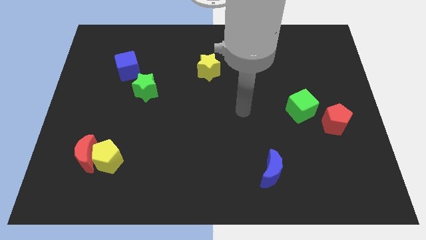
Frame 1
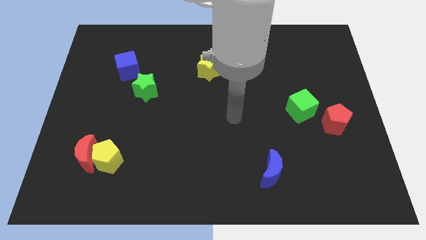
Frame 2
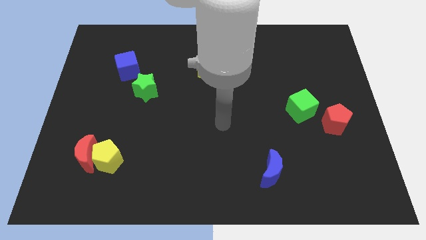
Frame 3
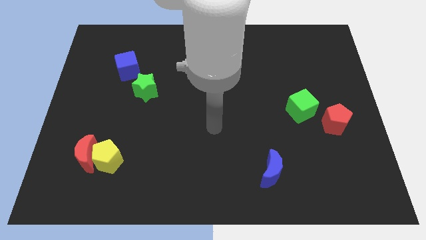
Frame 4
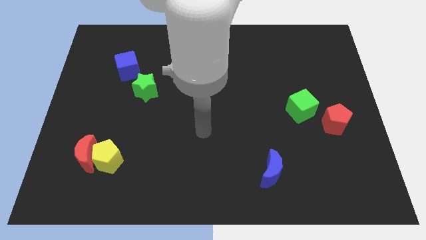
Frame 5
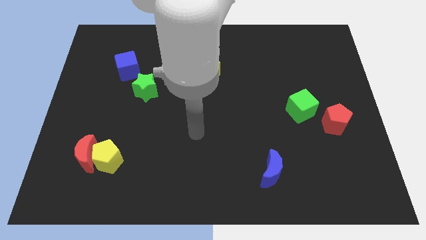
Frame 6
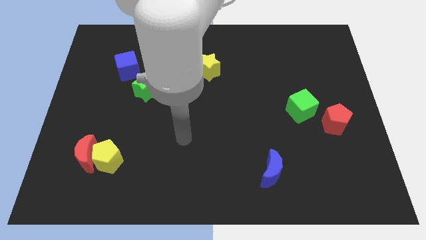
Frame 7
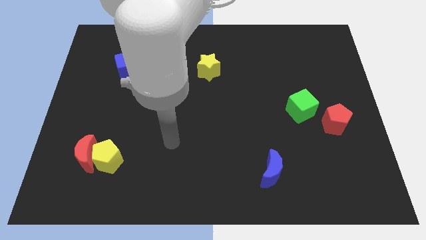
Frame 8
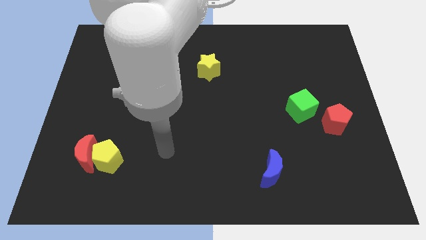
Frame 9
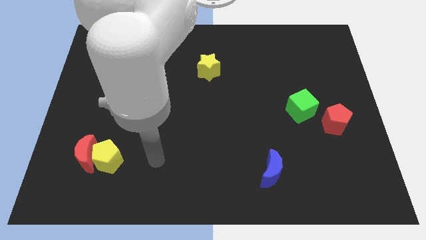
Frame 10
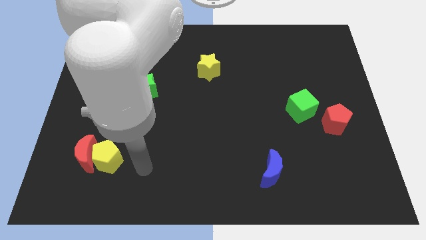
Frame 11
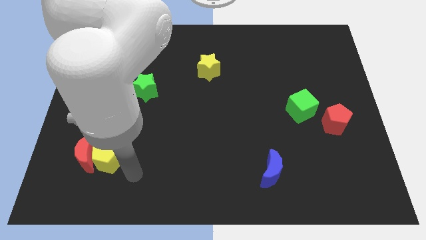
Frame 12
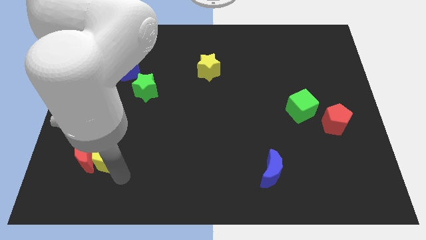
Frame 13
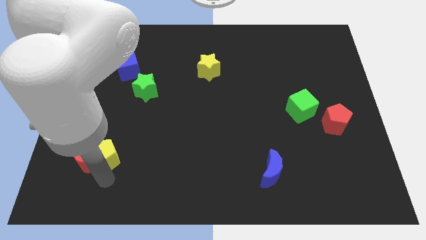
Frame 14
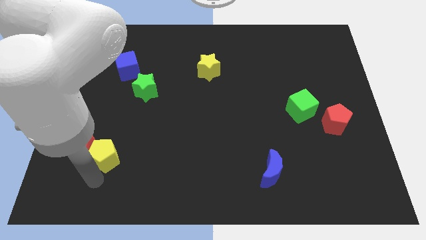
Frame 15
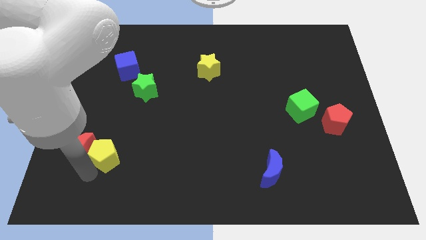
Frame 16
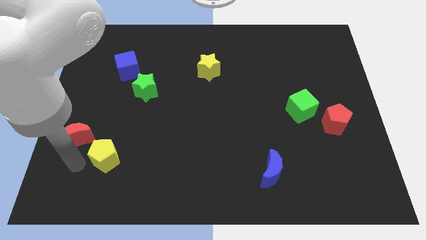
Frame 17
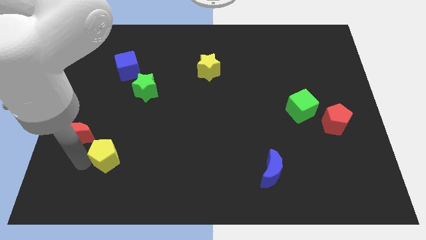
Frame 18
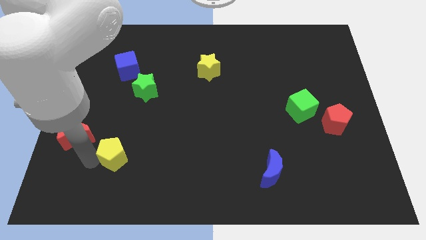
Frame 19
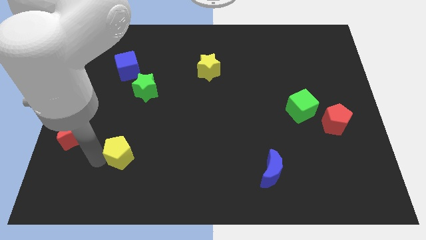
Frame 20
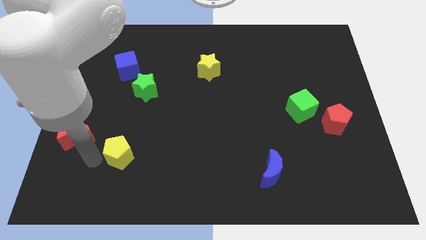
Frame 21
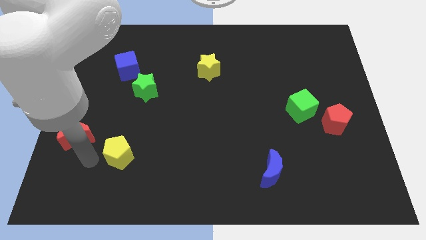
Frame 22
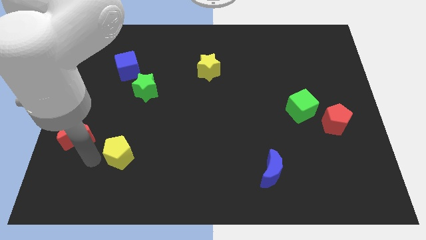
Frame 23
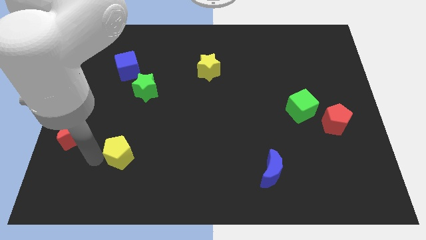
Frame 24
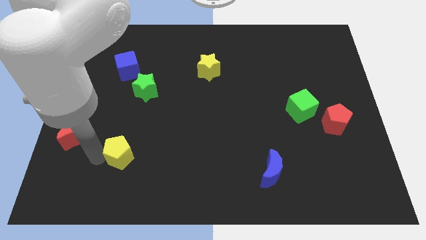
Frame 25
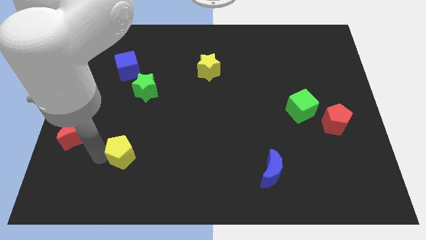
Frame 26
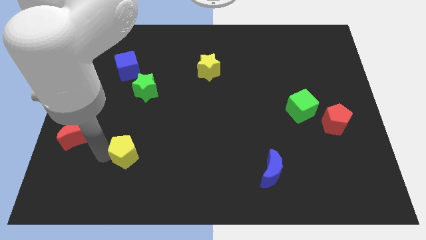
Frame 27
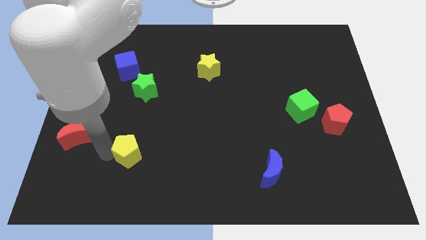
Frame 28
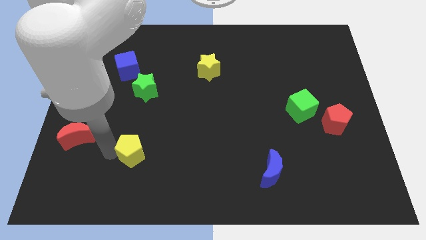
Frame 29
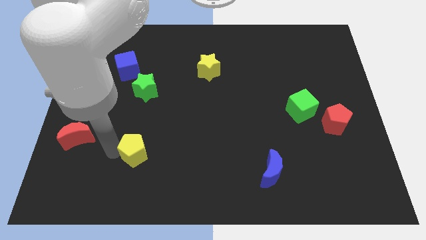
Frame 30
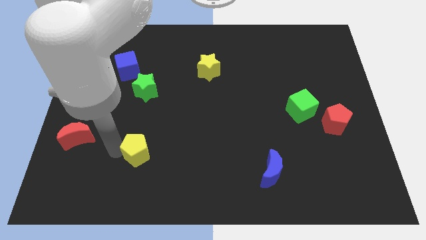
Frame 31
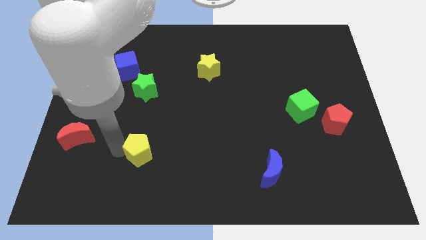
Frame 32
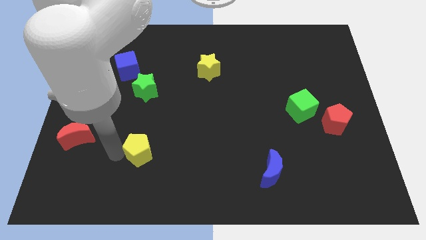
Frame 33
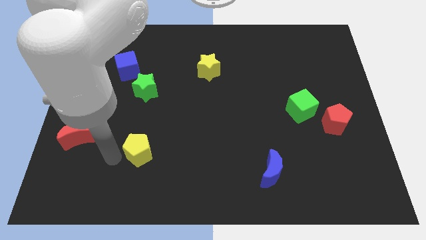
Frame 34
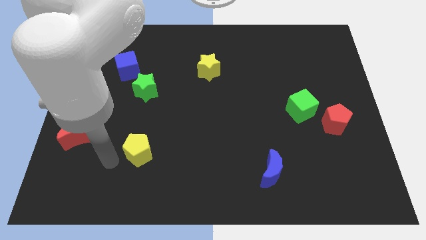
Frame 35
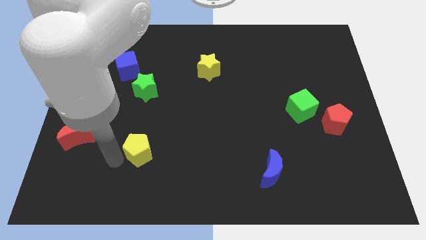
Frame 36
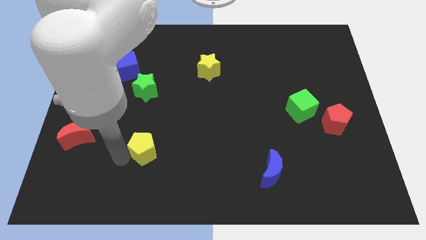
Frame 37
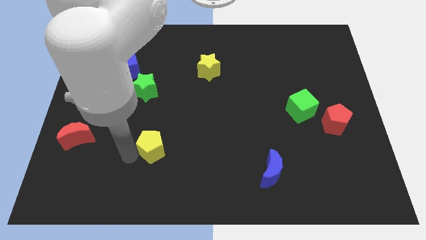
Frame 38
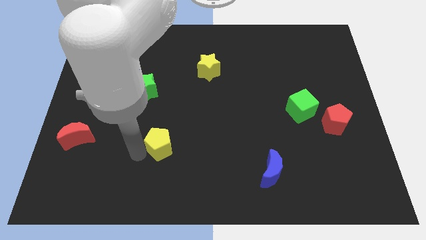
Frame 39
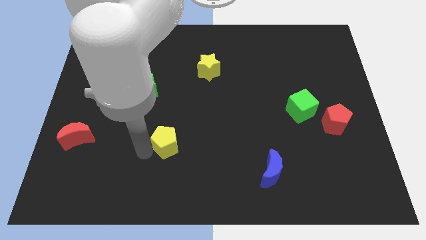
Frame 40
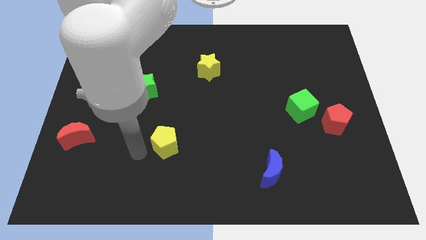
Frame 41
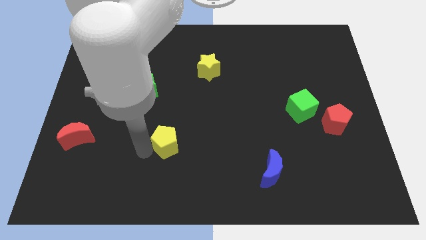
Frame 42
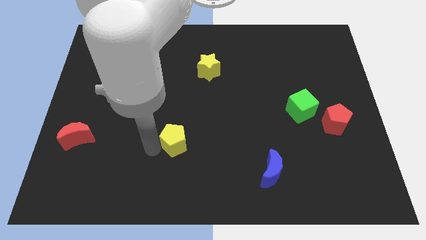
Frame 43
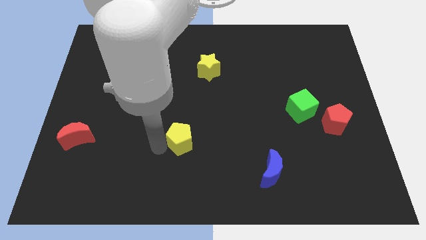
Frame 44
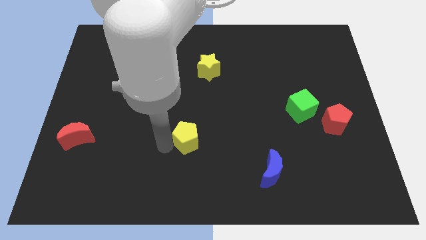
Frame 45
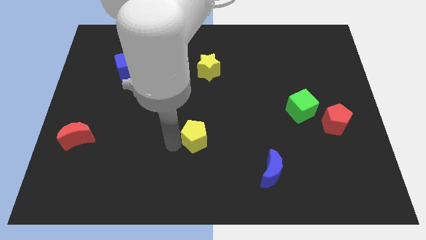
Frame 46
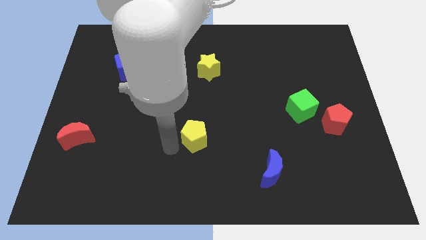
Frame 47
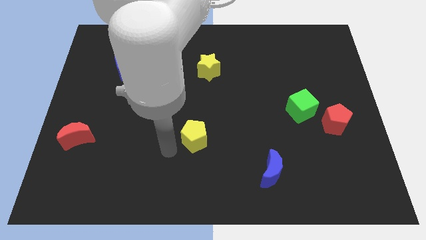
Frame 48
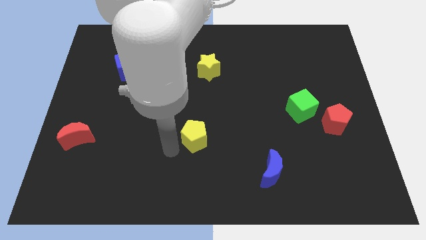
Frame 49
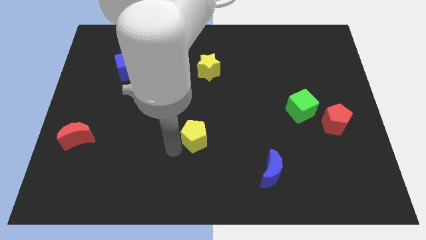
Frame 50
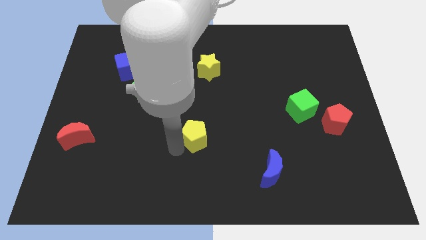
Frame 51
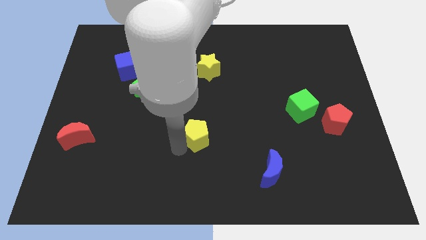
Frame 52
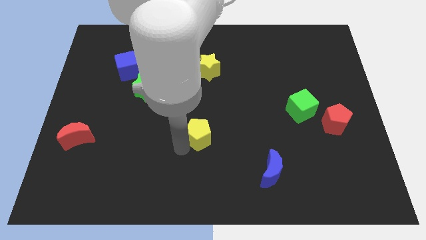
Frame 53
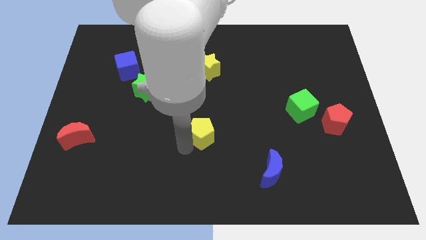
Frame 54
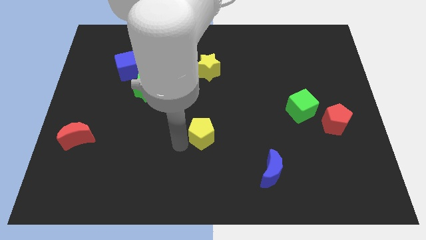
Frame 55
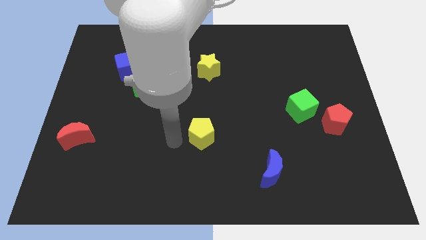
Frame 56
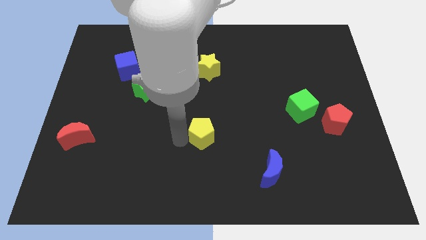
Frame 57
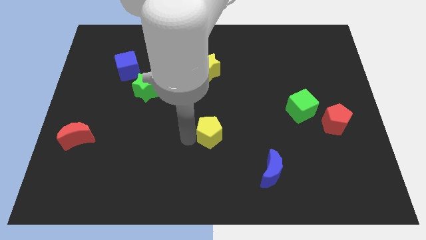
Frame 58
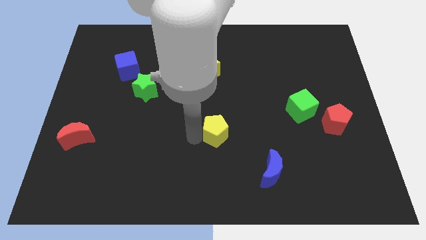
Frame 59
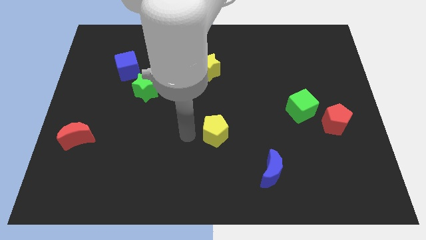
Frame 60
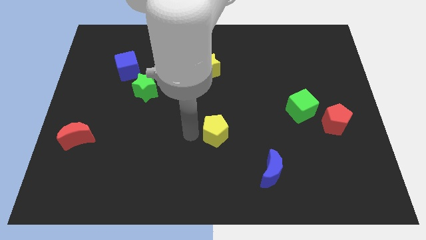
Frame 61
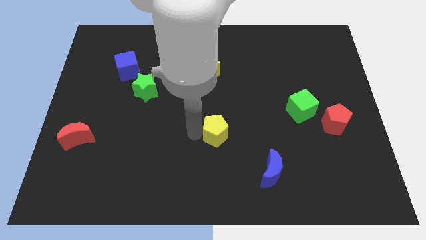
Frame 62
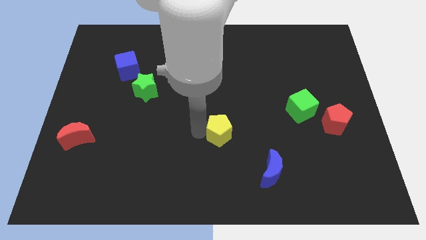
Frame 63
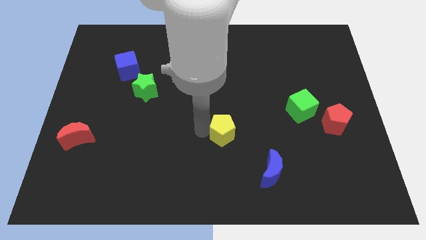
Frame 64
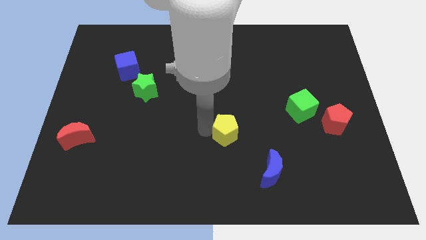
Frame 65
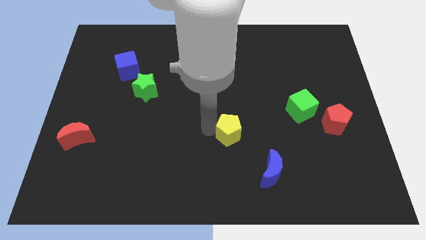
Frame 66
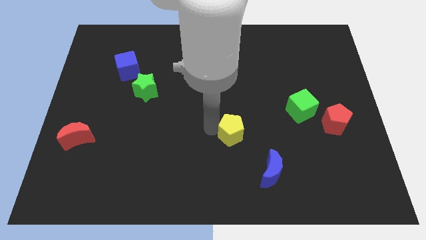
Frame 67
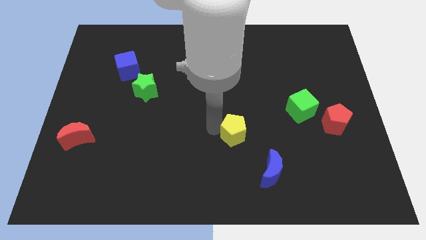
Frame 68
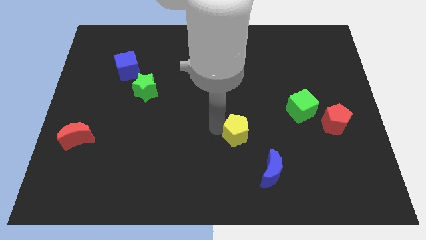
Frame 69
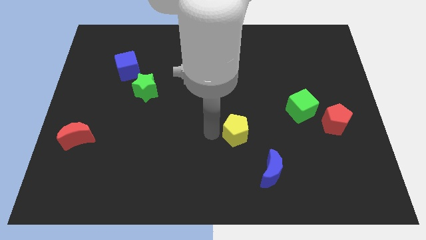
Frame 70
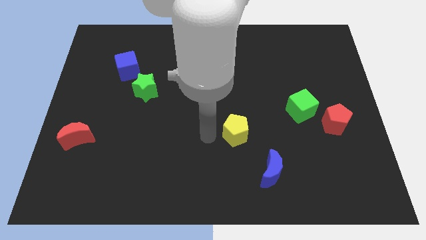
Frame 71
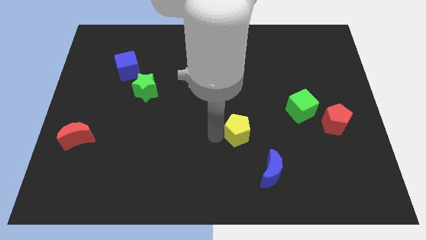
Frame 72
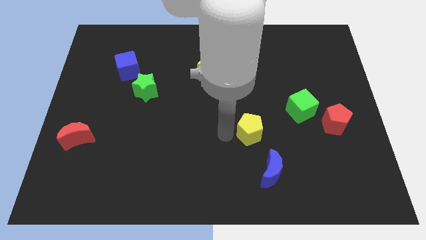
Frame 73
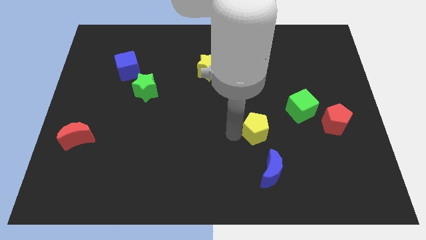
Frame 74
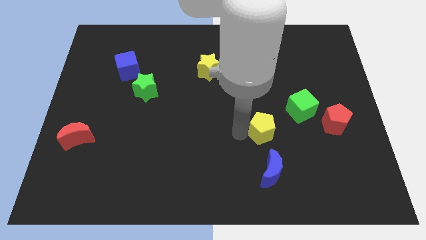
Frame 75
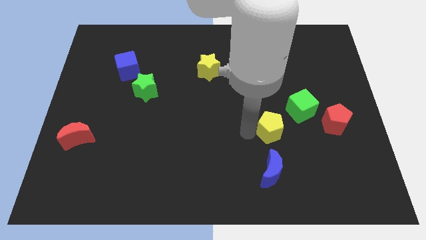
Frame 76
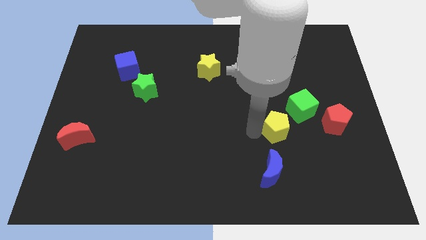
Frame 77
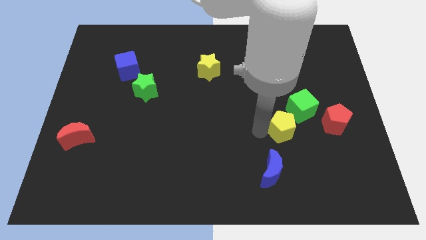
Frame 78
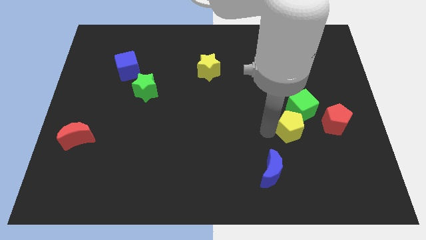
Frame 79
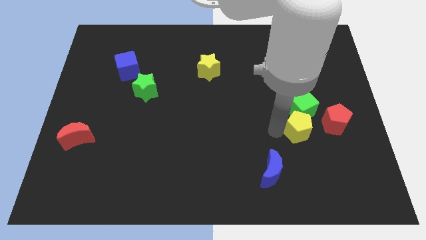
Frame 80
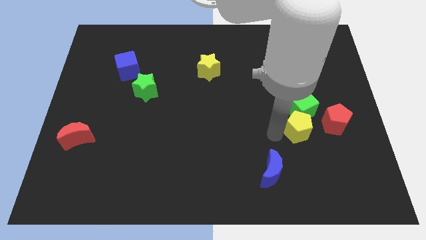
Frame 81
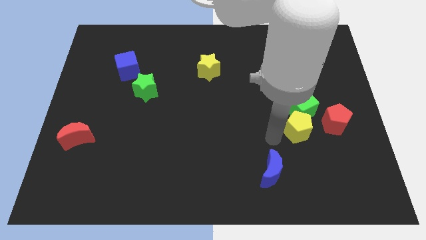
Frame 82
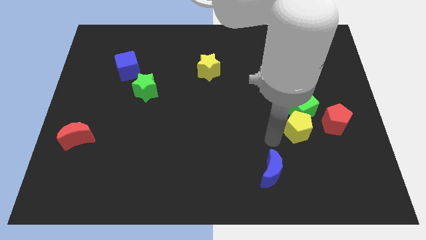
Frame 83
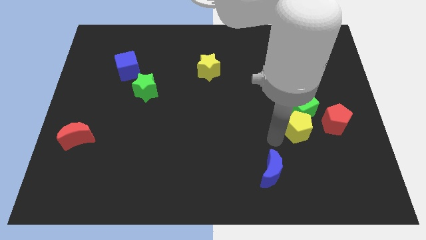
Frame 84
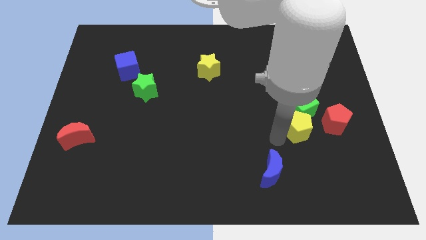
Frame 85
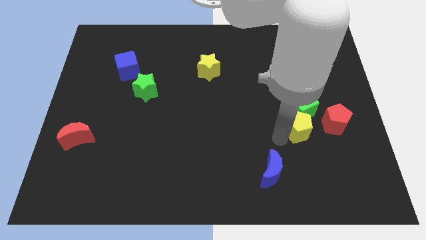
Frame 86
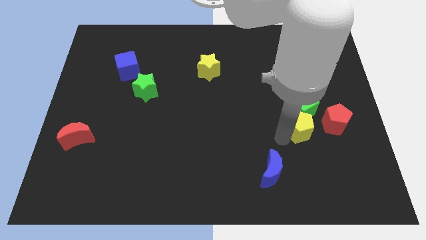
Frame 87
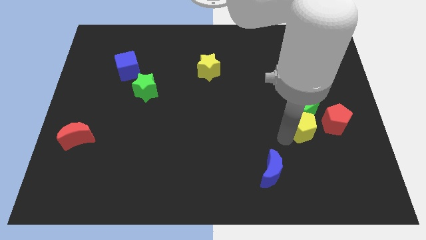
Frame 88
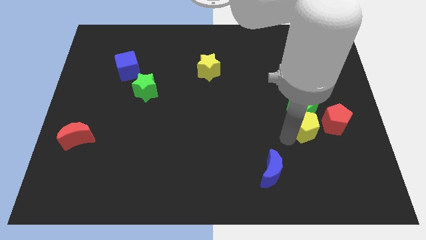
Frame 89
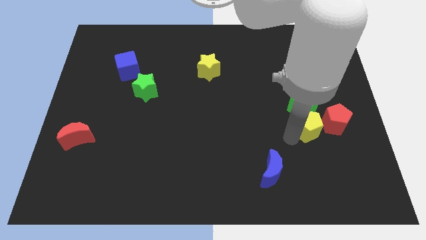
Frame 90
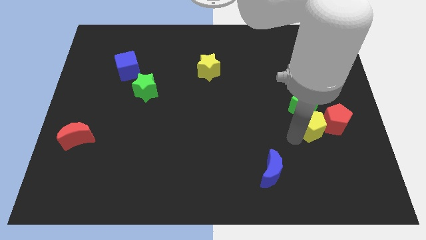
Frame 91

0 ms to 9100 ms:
put the yellow pentagon close to the red pentagon
